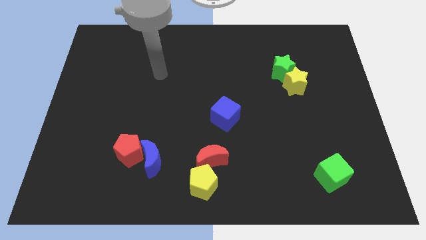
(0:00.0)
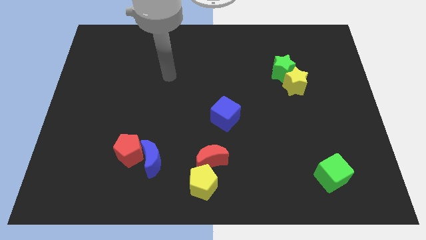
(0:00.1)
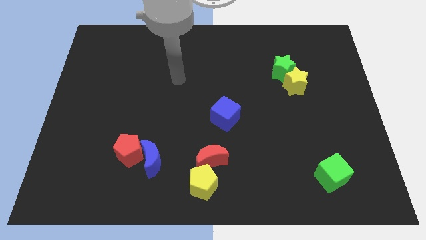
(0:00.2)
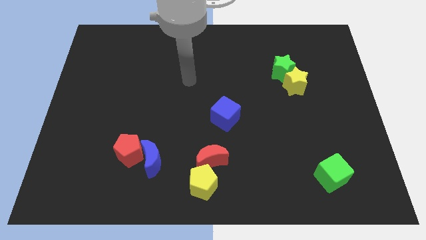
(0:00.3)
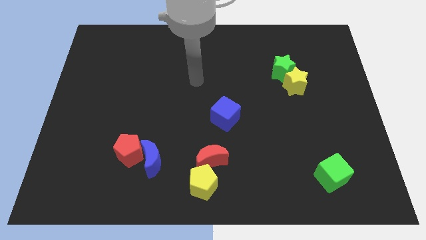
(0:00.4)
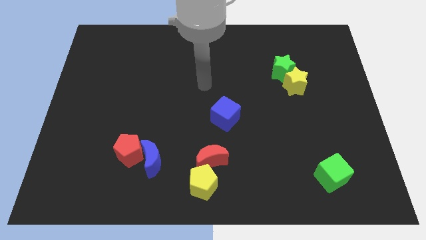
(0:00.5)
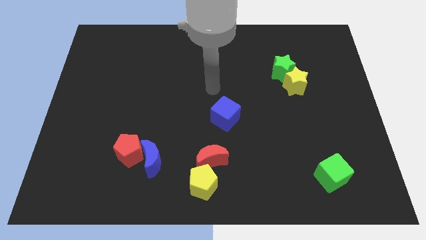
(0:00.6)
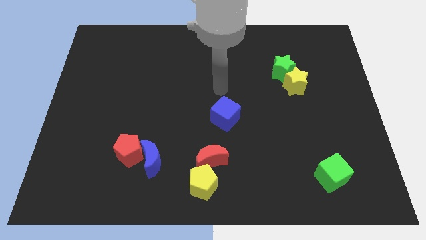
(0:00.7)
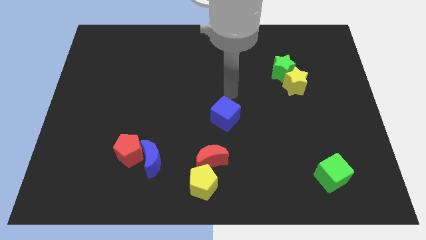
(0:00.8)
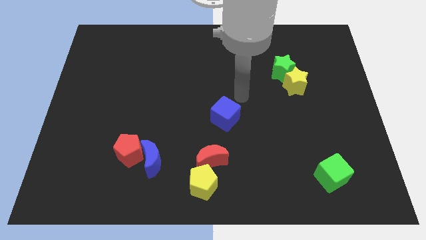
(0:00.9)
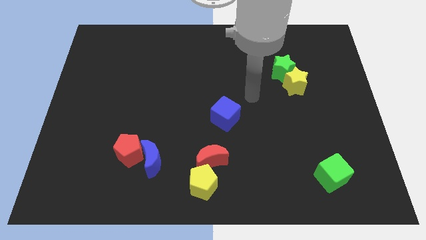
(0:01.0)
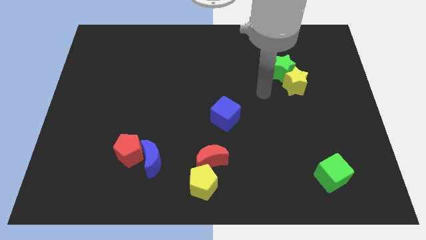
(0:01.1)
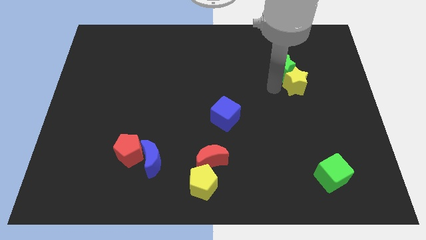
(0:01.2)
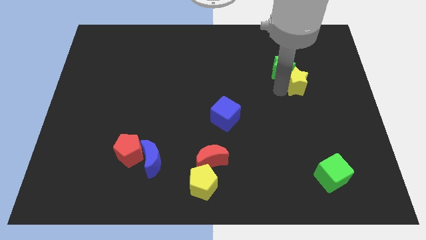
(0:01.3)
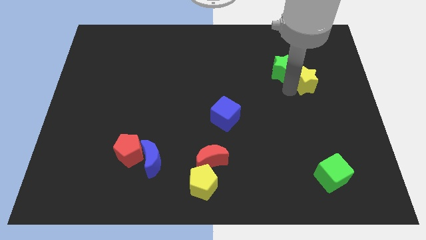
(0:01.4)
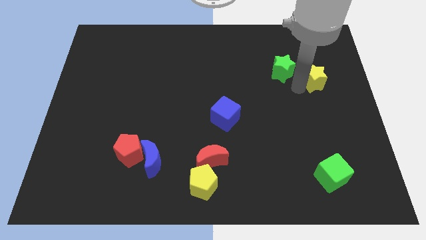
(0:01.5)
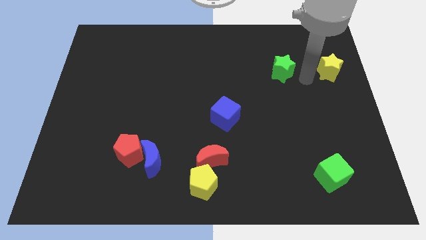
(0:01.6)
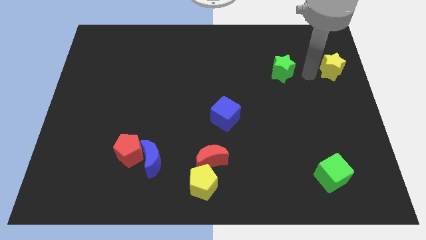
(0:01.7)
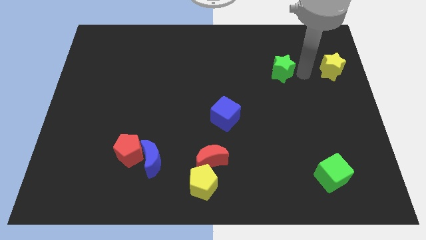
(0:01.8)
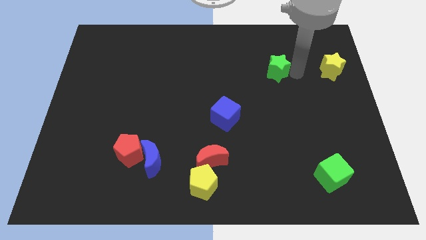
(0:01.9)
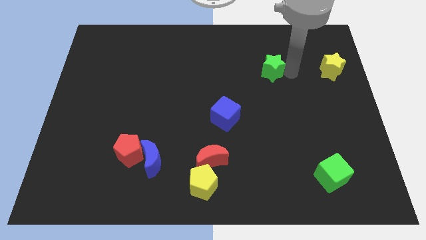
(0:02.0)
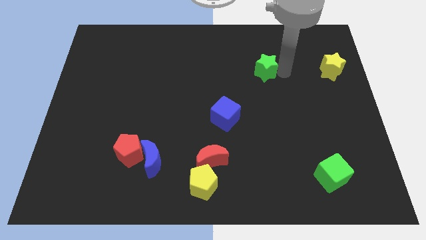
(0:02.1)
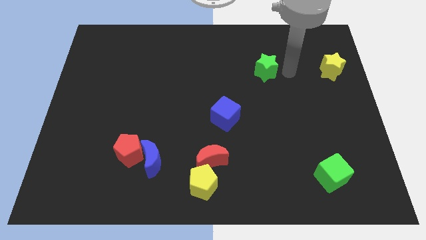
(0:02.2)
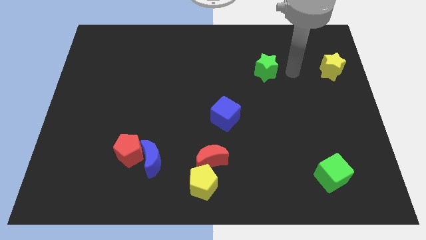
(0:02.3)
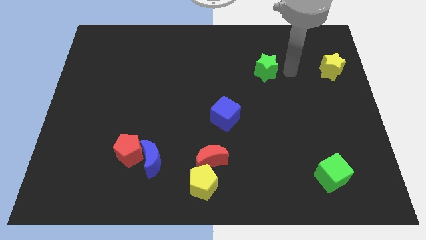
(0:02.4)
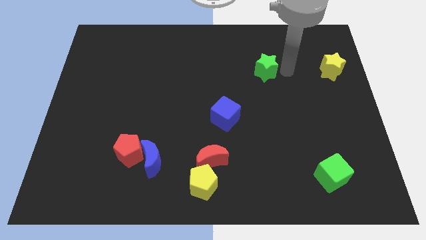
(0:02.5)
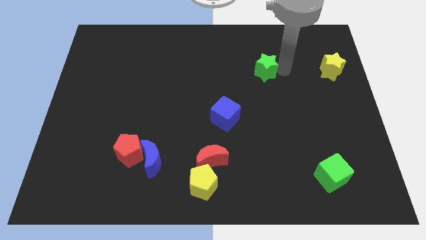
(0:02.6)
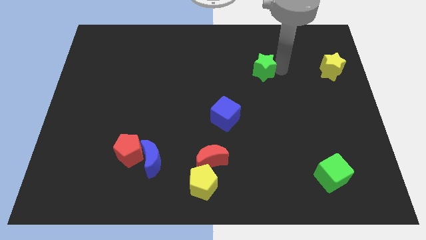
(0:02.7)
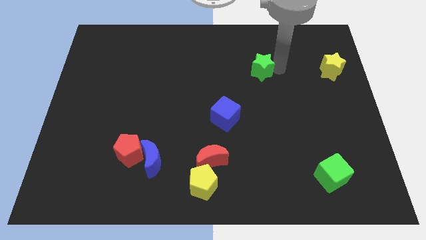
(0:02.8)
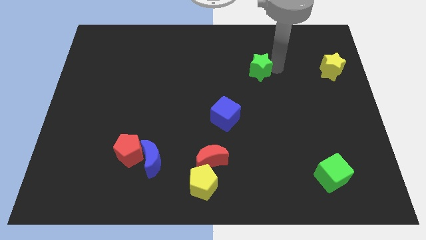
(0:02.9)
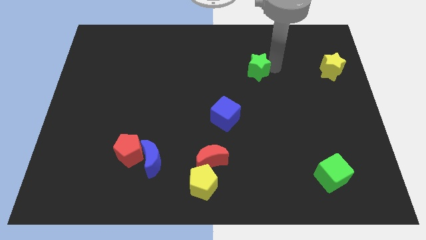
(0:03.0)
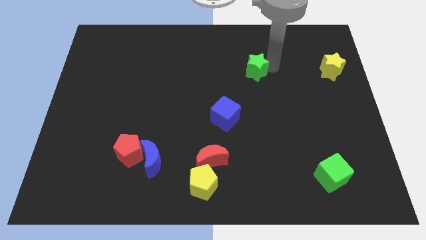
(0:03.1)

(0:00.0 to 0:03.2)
slightly move the green star to the left

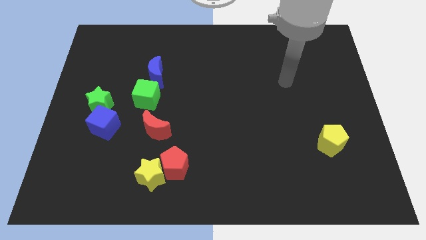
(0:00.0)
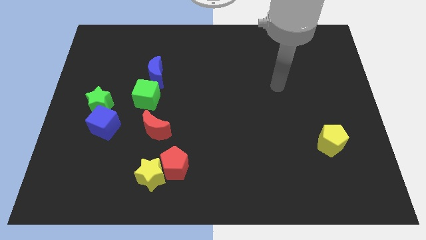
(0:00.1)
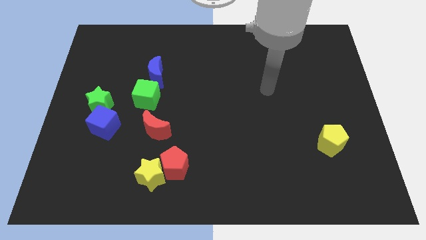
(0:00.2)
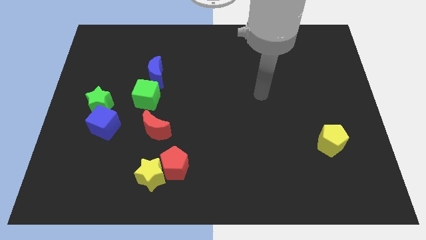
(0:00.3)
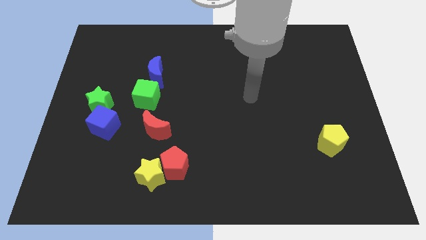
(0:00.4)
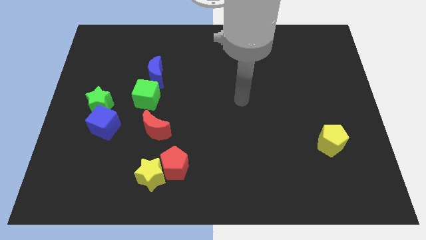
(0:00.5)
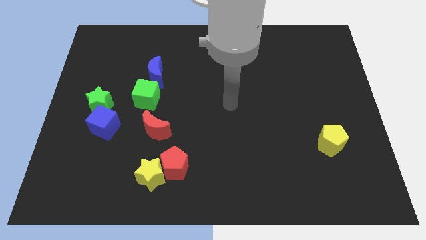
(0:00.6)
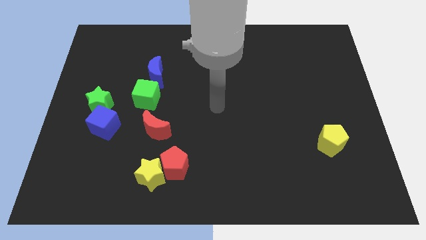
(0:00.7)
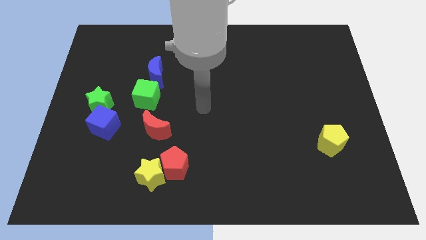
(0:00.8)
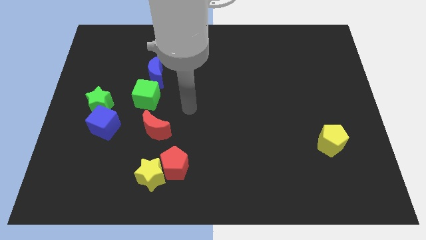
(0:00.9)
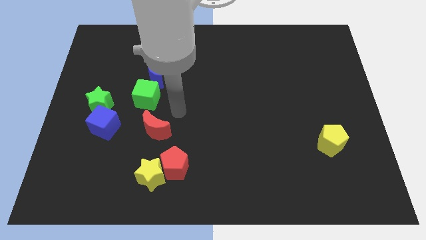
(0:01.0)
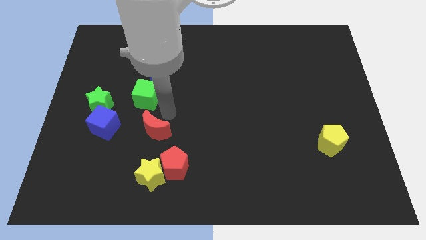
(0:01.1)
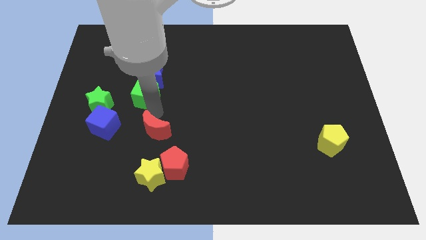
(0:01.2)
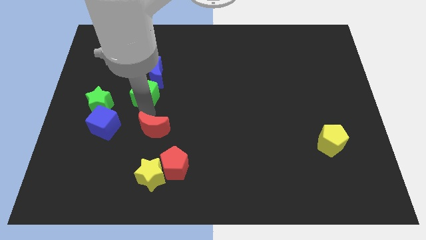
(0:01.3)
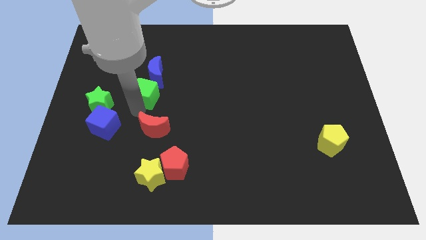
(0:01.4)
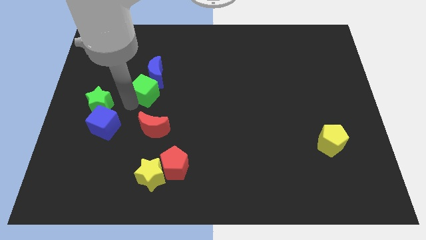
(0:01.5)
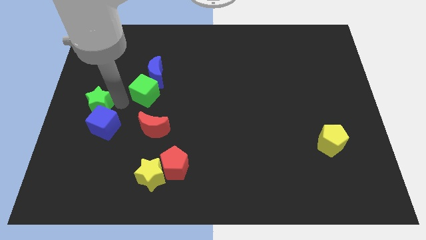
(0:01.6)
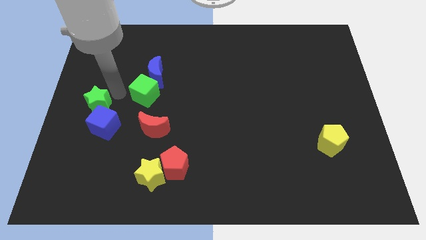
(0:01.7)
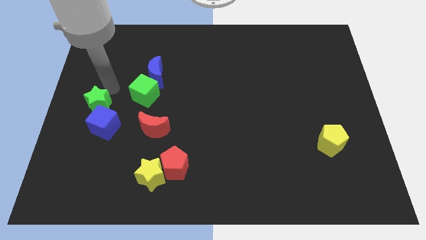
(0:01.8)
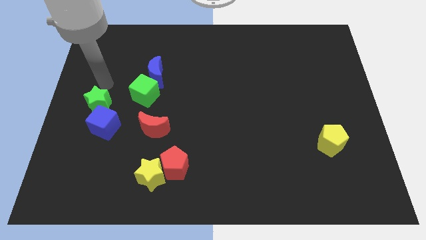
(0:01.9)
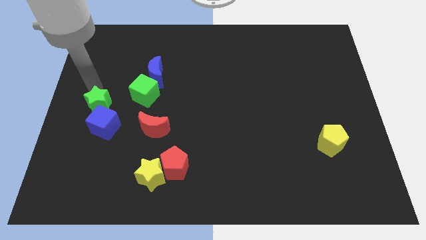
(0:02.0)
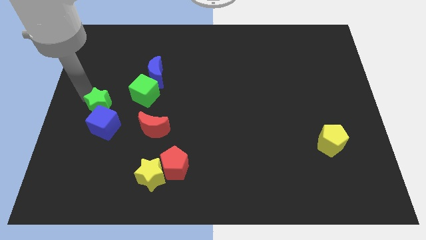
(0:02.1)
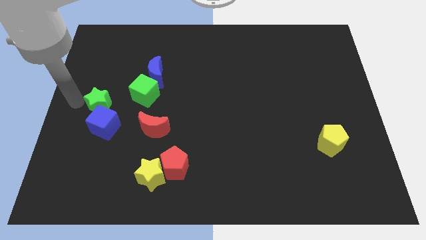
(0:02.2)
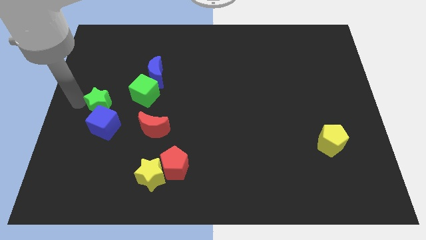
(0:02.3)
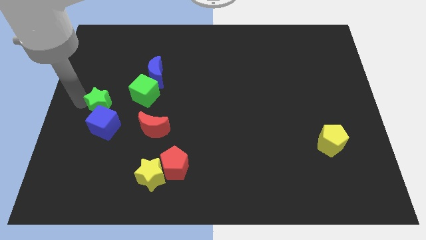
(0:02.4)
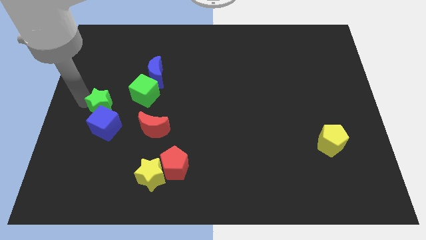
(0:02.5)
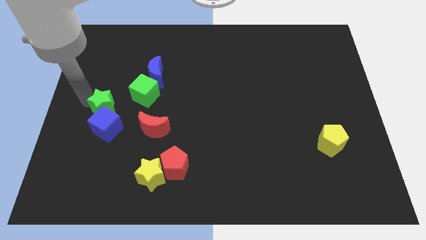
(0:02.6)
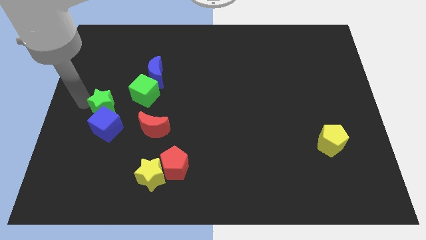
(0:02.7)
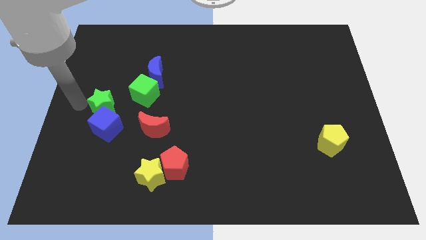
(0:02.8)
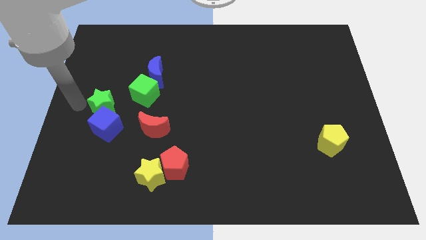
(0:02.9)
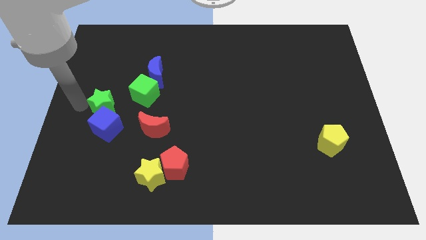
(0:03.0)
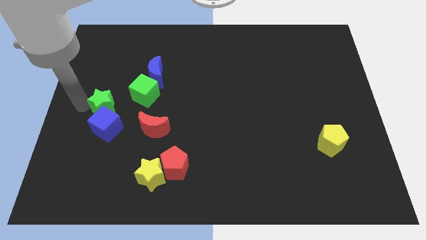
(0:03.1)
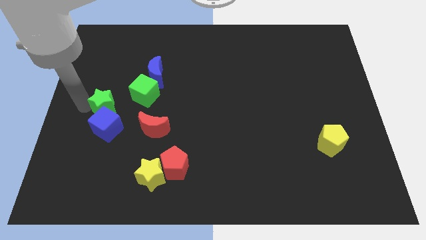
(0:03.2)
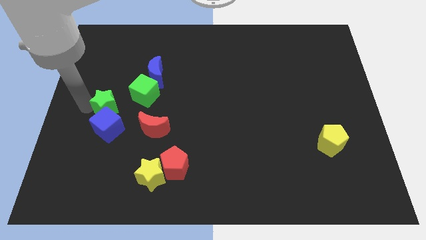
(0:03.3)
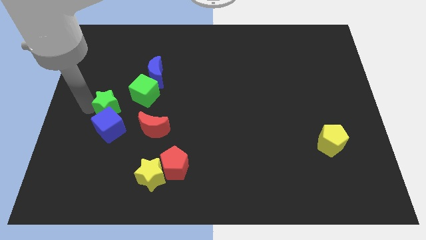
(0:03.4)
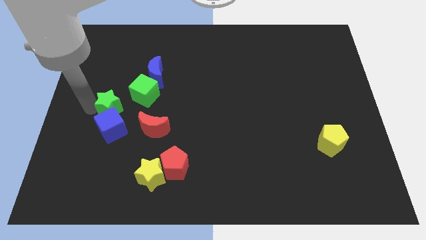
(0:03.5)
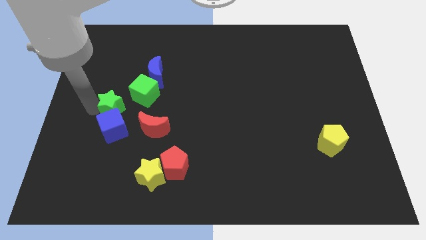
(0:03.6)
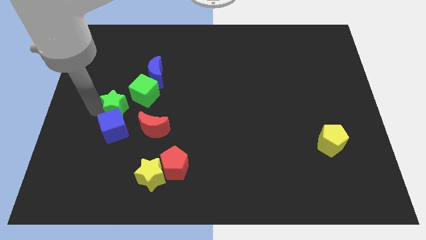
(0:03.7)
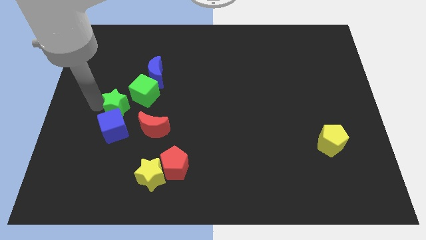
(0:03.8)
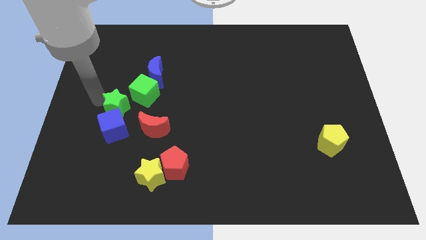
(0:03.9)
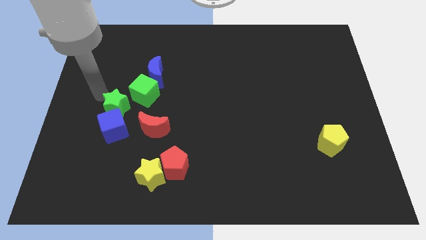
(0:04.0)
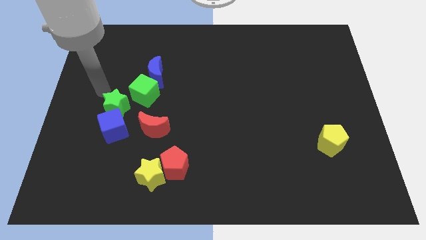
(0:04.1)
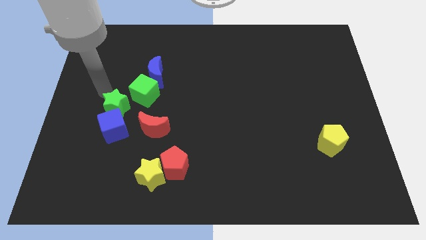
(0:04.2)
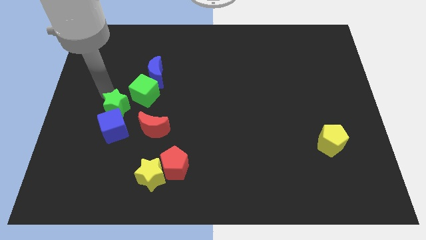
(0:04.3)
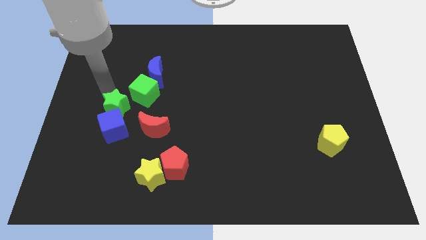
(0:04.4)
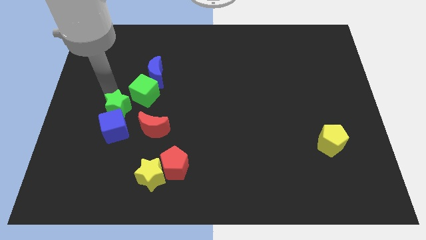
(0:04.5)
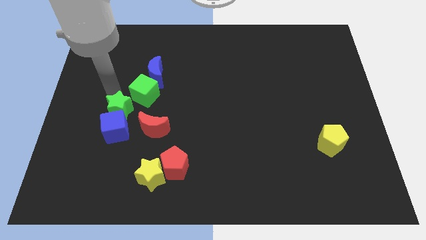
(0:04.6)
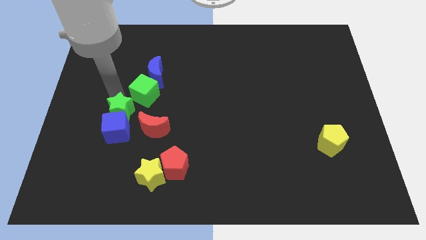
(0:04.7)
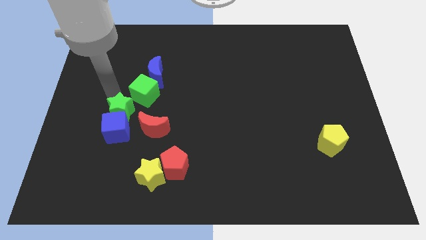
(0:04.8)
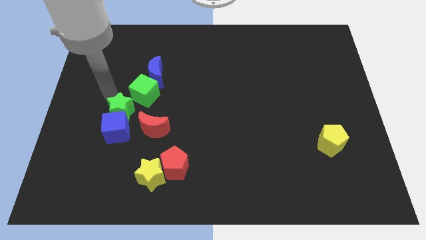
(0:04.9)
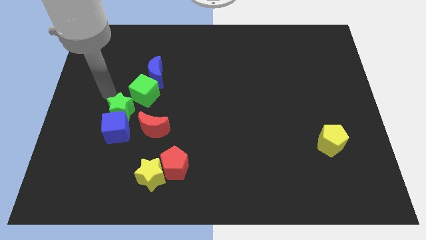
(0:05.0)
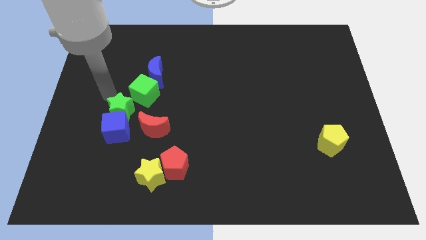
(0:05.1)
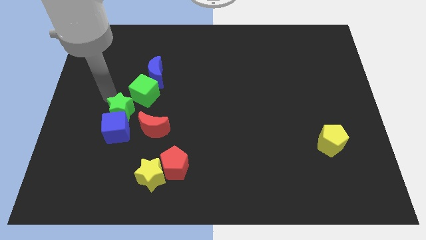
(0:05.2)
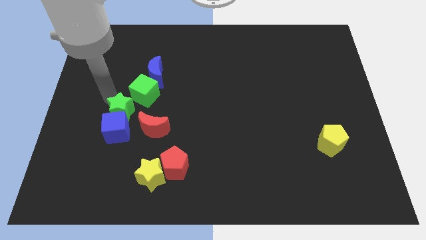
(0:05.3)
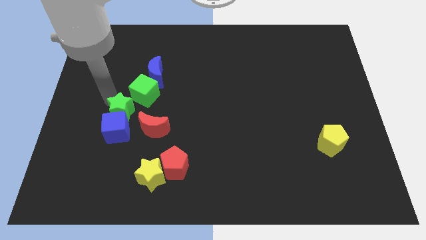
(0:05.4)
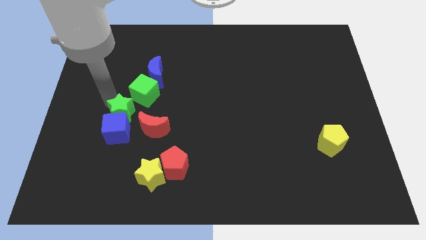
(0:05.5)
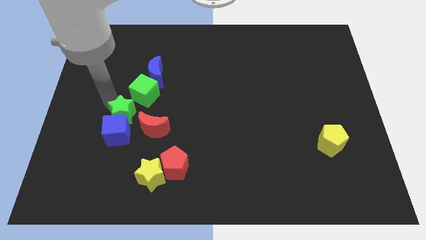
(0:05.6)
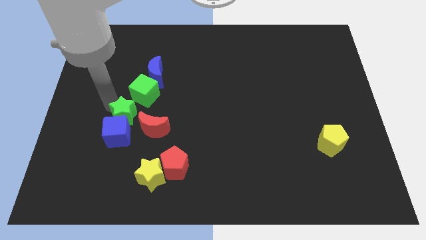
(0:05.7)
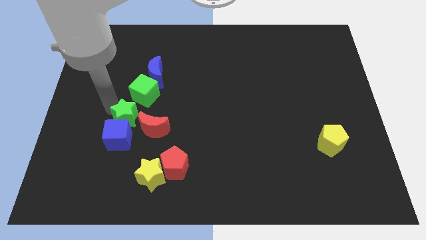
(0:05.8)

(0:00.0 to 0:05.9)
slightly push the green star diagonally downwards and to the right
